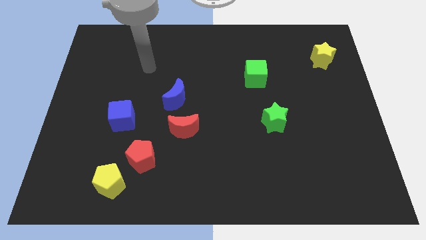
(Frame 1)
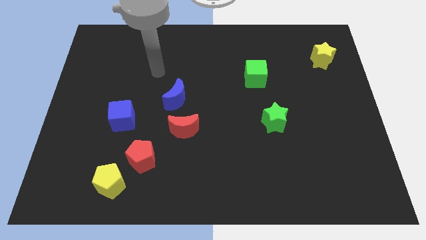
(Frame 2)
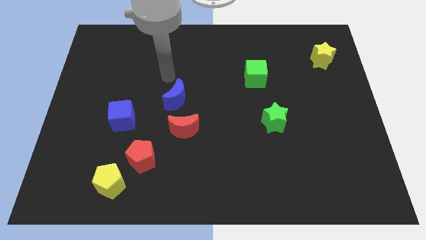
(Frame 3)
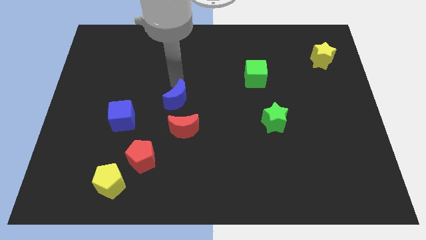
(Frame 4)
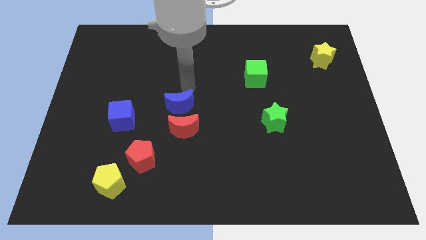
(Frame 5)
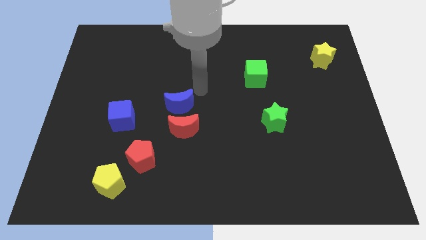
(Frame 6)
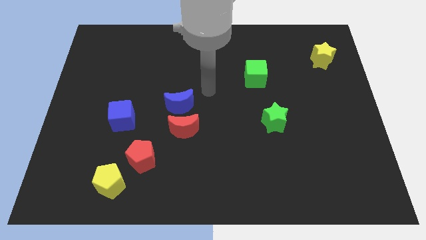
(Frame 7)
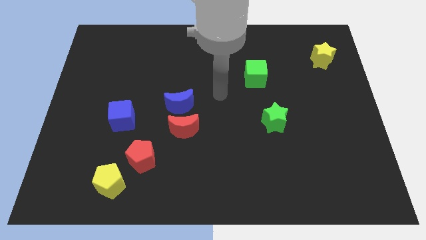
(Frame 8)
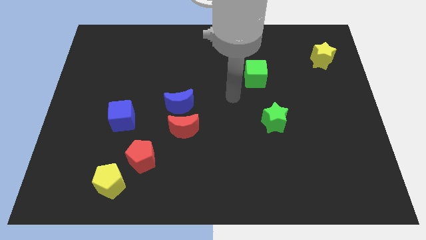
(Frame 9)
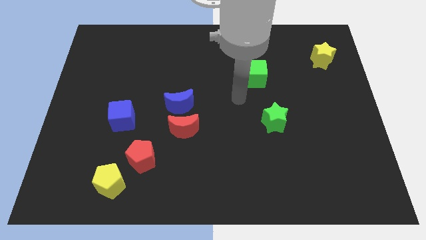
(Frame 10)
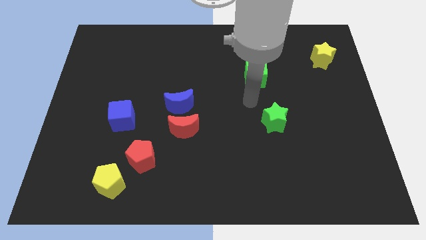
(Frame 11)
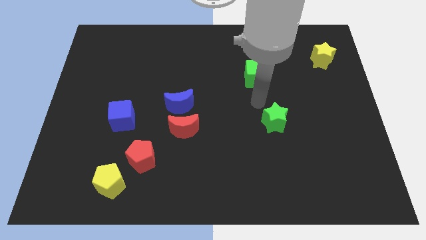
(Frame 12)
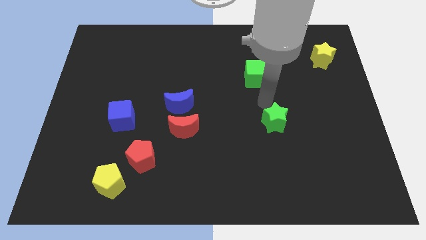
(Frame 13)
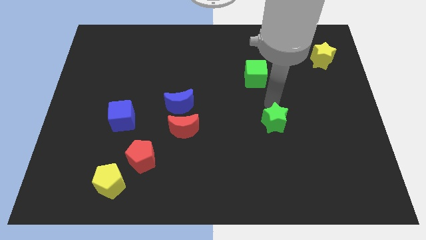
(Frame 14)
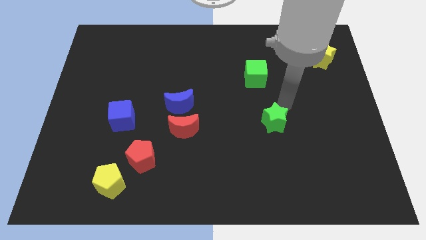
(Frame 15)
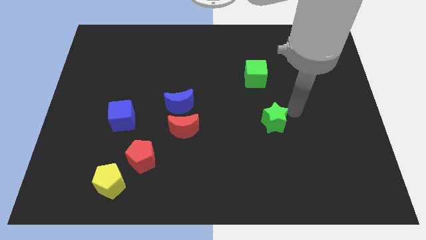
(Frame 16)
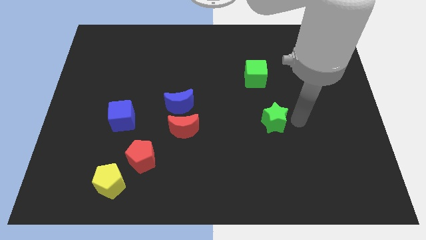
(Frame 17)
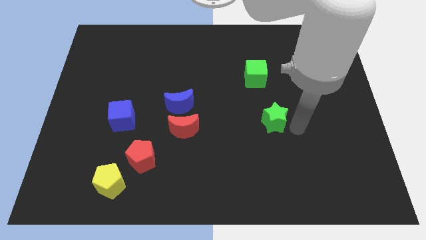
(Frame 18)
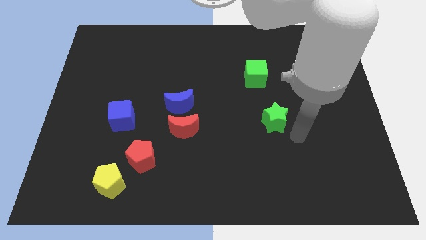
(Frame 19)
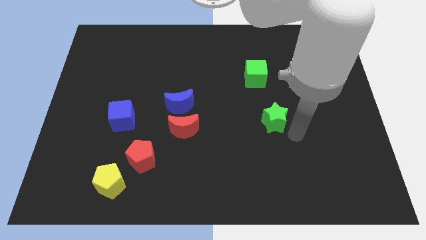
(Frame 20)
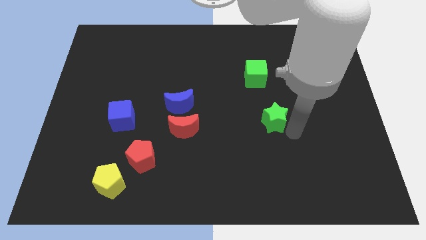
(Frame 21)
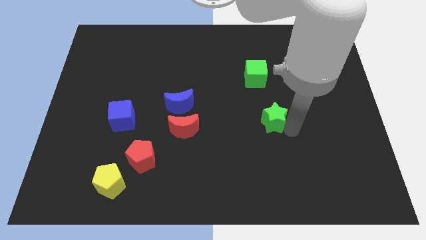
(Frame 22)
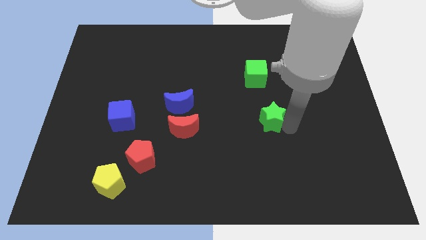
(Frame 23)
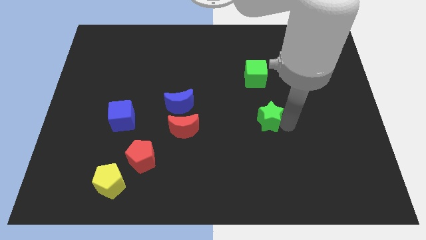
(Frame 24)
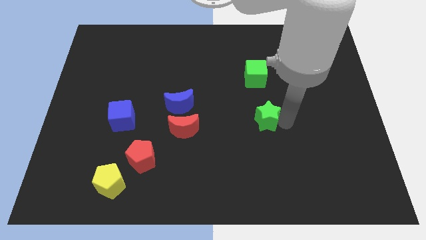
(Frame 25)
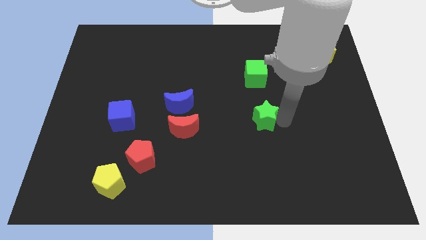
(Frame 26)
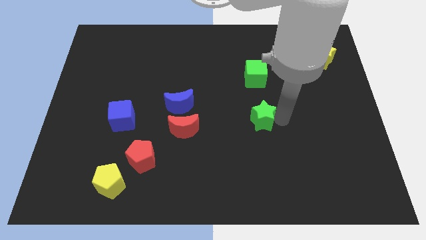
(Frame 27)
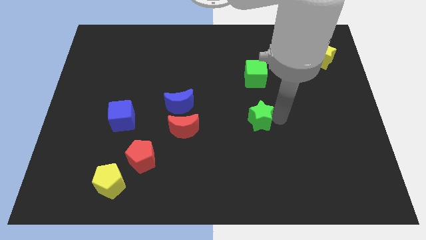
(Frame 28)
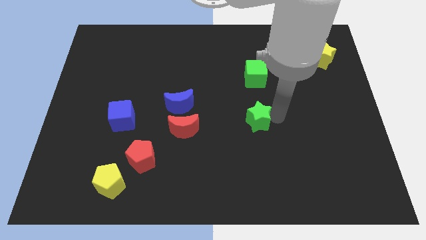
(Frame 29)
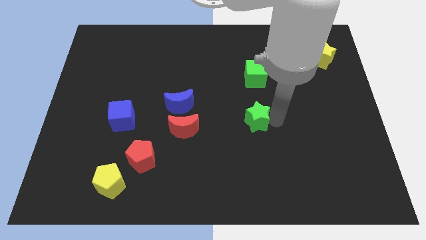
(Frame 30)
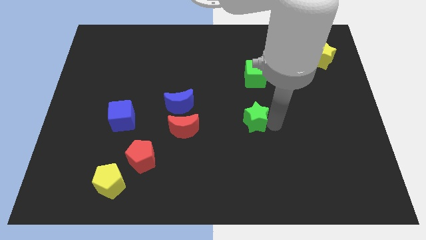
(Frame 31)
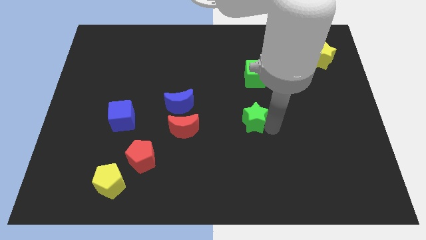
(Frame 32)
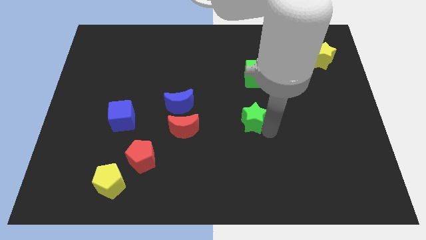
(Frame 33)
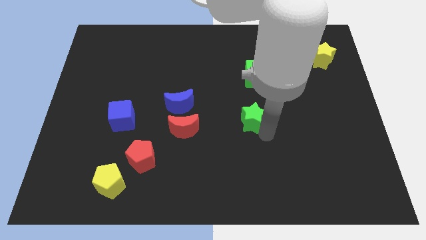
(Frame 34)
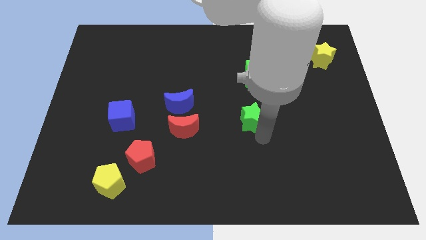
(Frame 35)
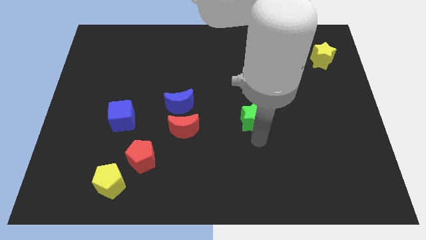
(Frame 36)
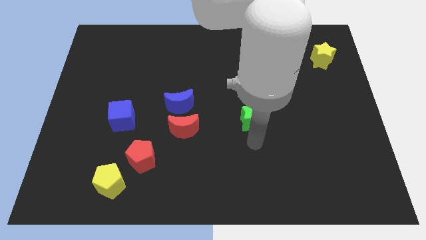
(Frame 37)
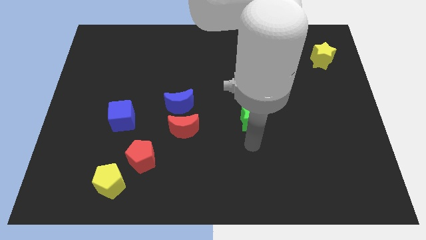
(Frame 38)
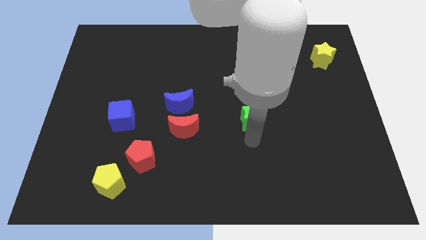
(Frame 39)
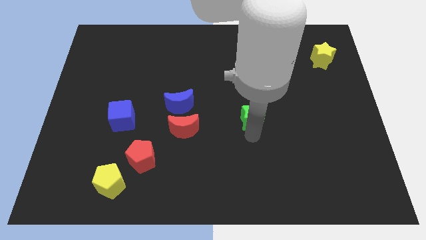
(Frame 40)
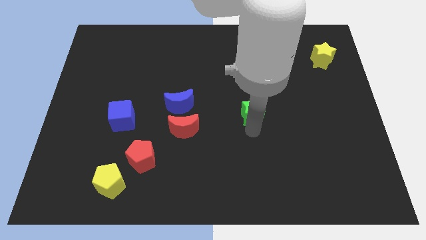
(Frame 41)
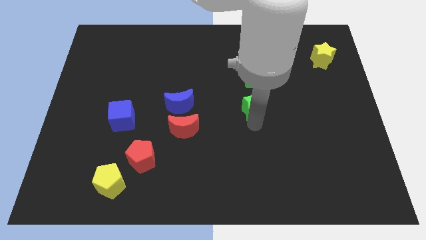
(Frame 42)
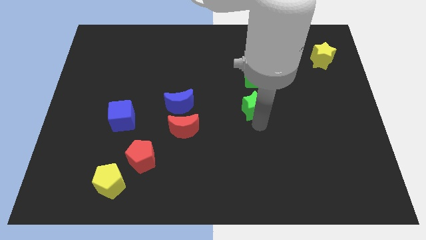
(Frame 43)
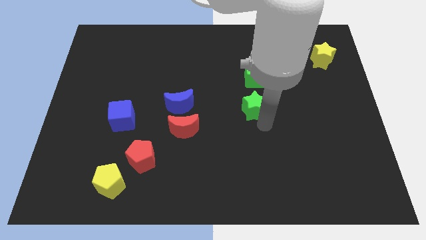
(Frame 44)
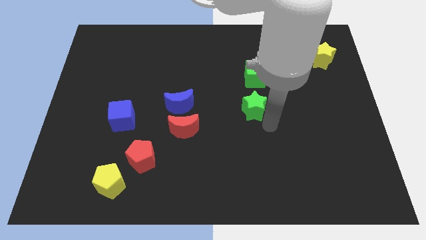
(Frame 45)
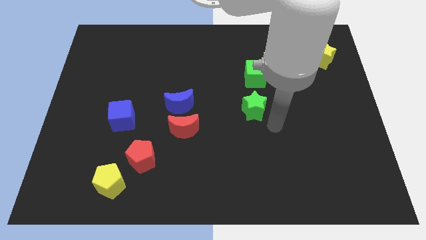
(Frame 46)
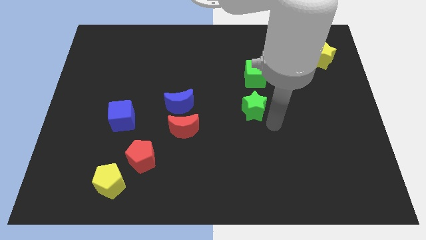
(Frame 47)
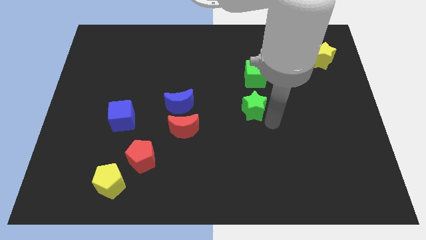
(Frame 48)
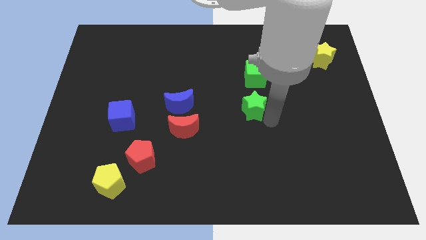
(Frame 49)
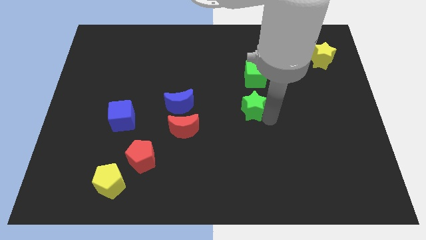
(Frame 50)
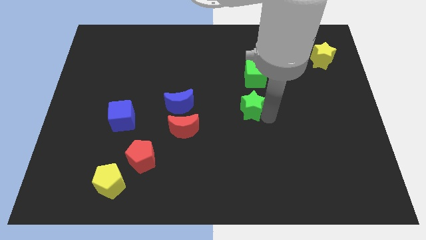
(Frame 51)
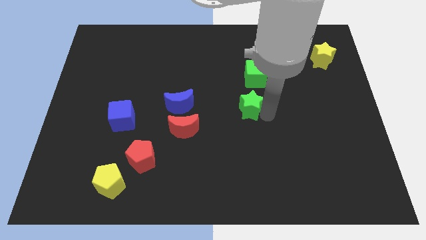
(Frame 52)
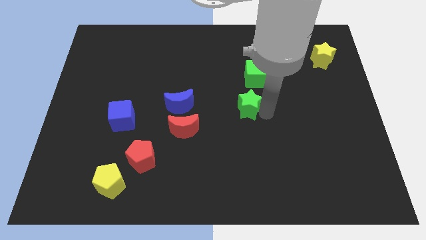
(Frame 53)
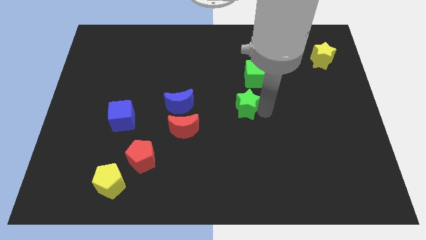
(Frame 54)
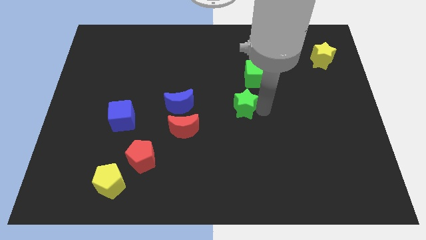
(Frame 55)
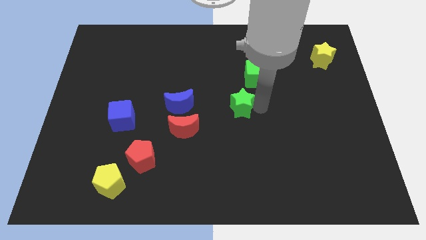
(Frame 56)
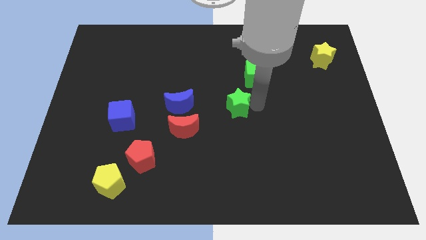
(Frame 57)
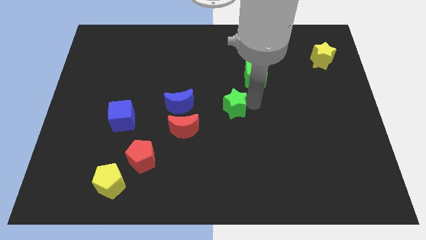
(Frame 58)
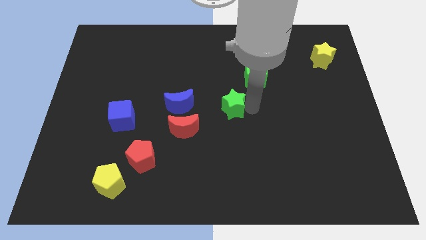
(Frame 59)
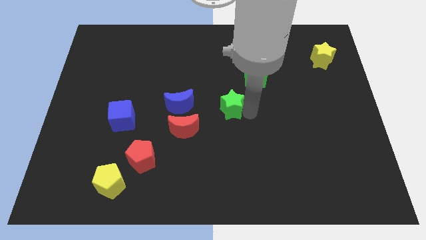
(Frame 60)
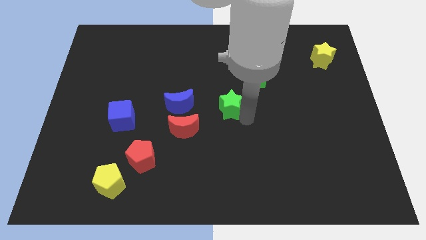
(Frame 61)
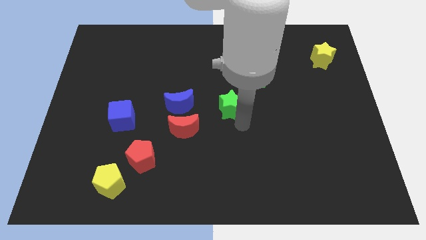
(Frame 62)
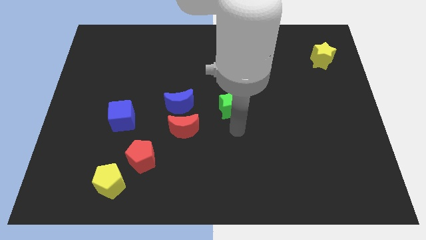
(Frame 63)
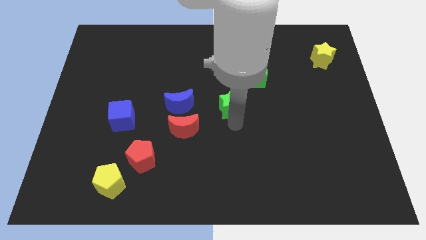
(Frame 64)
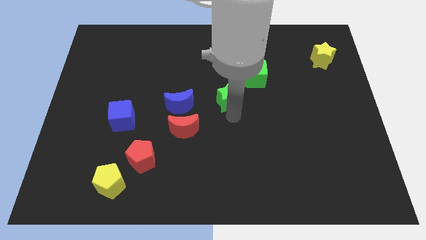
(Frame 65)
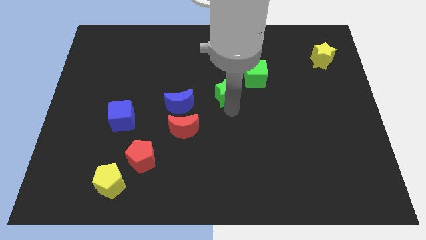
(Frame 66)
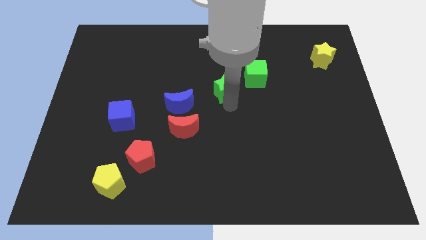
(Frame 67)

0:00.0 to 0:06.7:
move the green star to the left side of the green cube

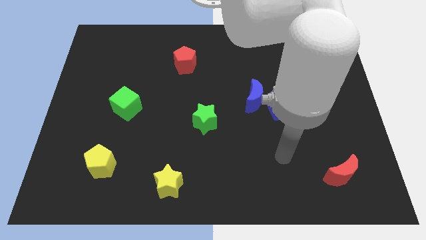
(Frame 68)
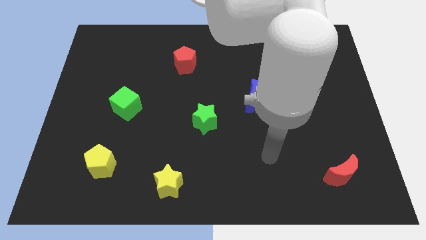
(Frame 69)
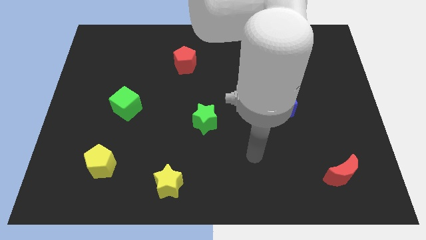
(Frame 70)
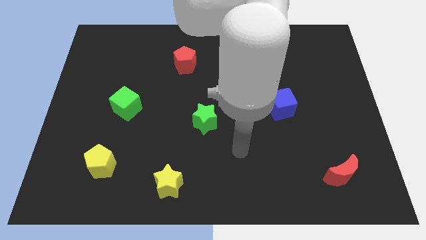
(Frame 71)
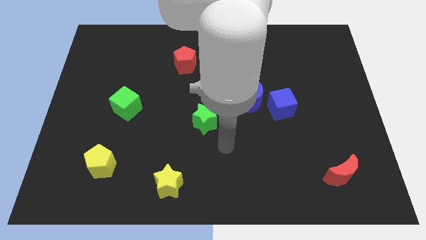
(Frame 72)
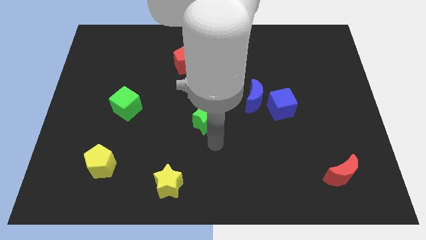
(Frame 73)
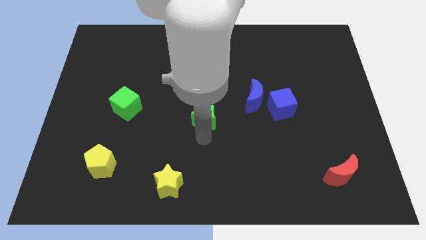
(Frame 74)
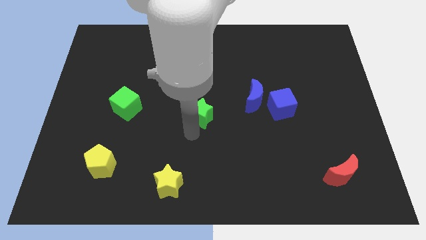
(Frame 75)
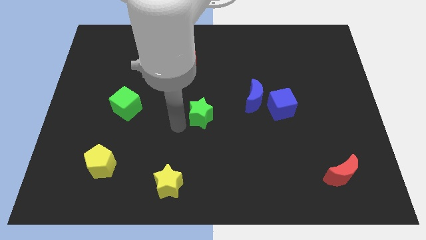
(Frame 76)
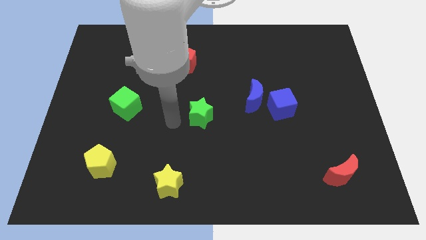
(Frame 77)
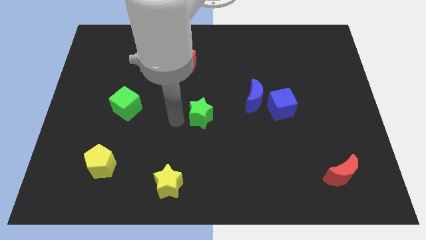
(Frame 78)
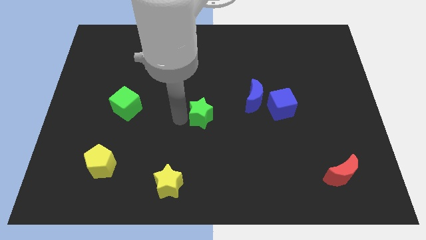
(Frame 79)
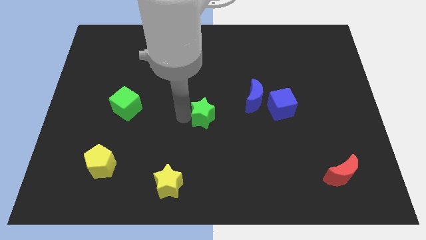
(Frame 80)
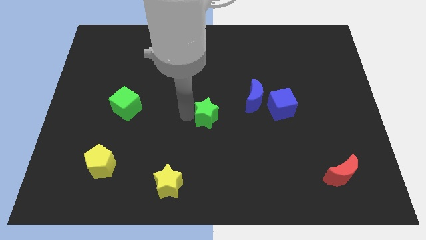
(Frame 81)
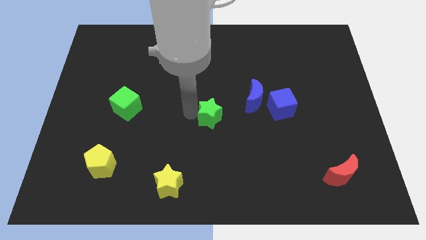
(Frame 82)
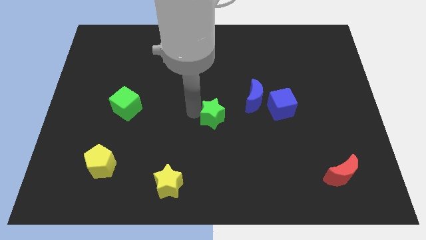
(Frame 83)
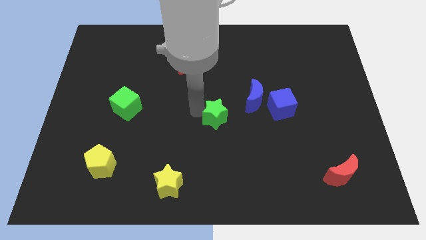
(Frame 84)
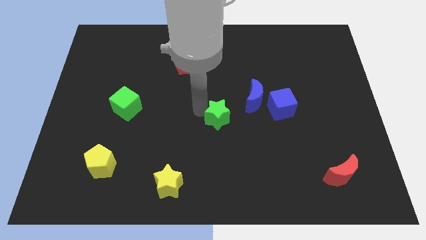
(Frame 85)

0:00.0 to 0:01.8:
move the green star left of the blue cube
